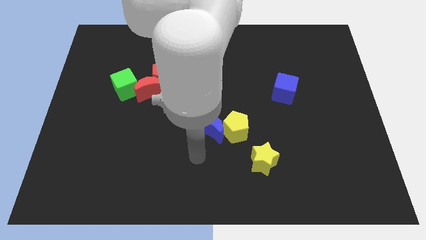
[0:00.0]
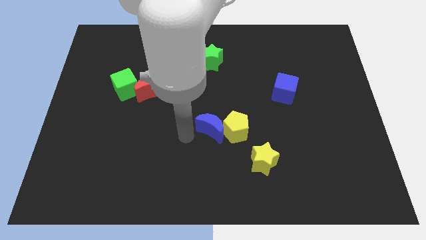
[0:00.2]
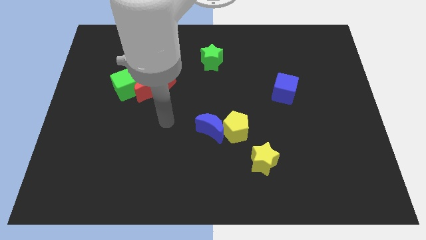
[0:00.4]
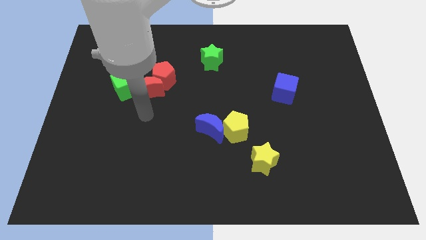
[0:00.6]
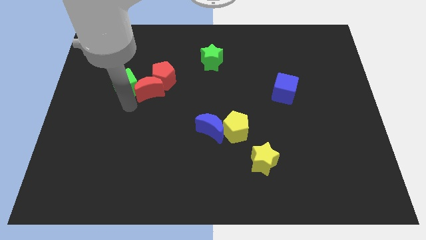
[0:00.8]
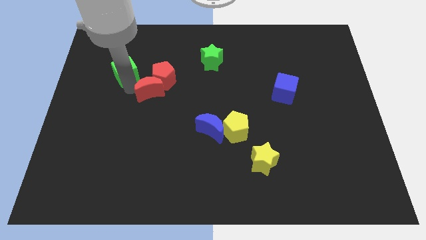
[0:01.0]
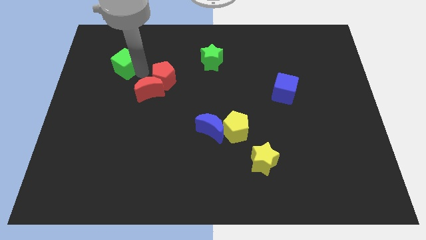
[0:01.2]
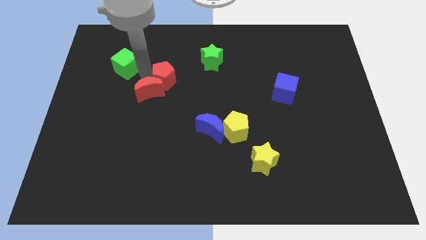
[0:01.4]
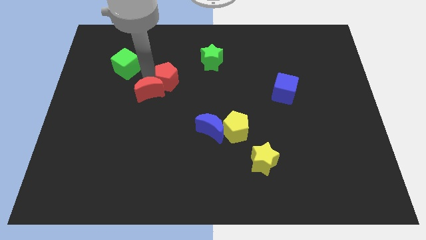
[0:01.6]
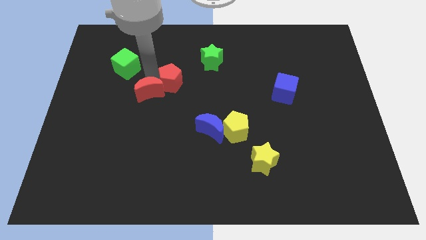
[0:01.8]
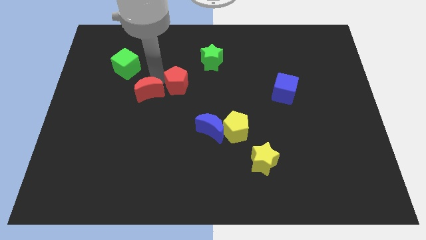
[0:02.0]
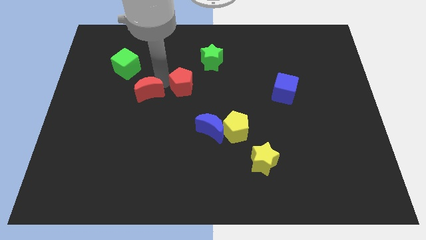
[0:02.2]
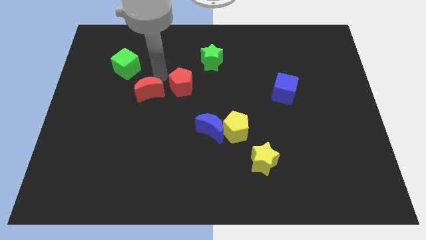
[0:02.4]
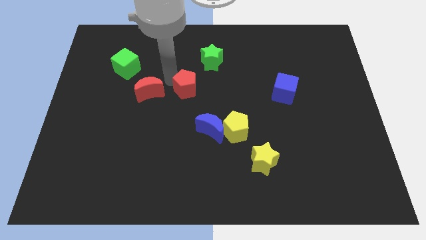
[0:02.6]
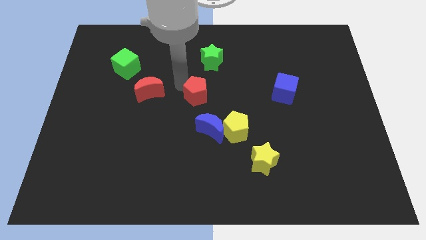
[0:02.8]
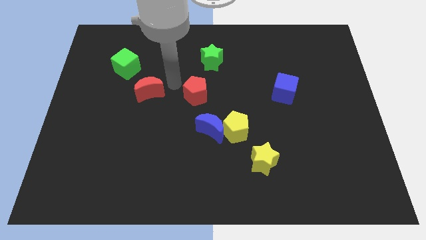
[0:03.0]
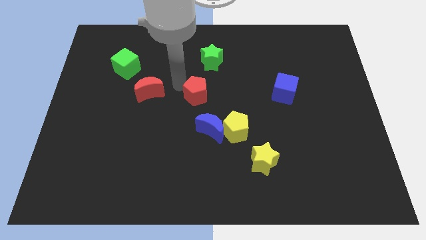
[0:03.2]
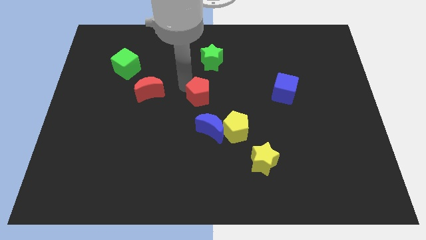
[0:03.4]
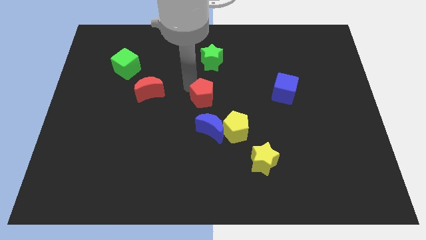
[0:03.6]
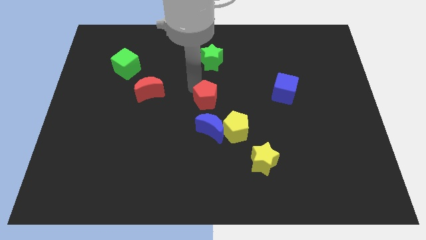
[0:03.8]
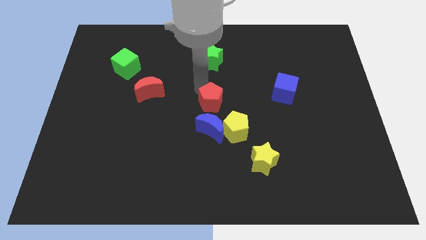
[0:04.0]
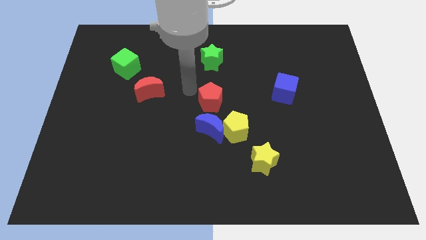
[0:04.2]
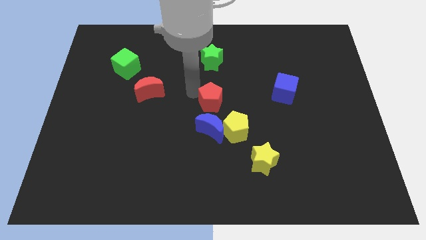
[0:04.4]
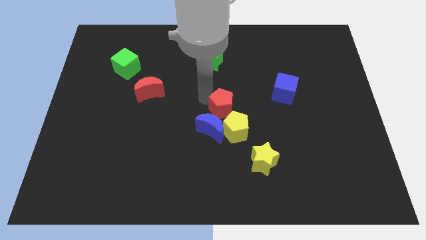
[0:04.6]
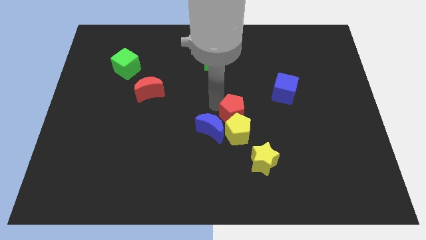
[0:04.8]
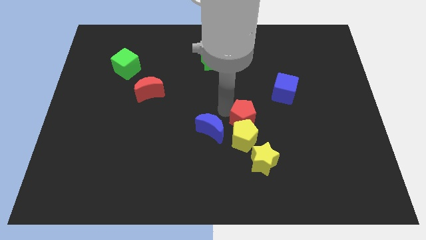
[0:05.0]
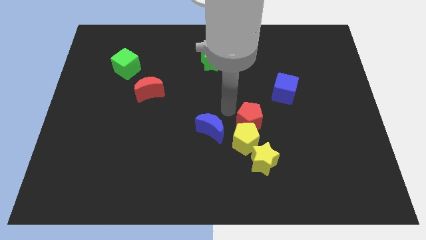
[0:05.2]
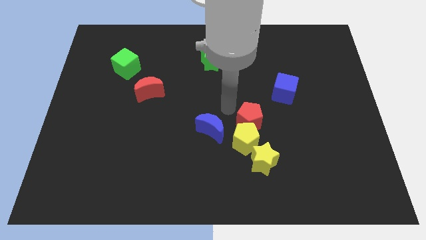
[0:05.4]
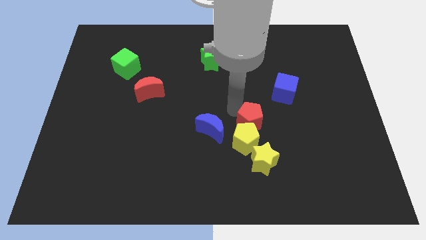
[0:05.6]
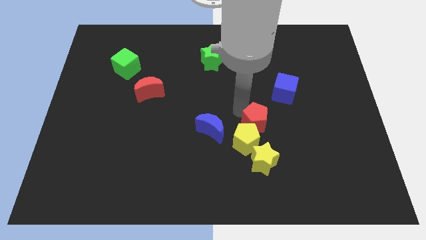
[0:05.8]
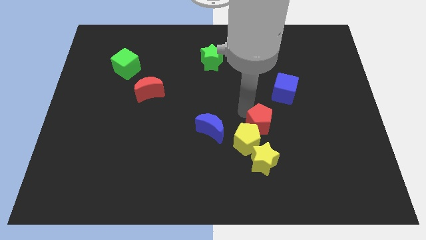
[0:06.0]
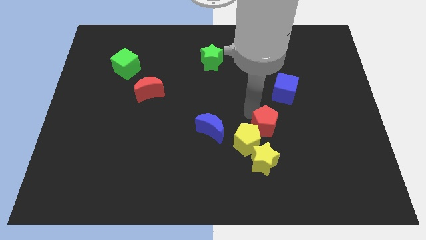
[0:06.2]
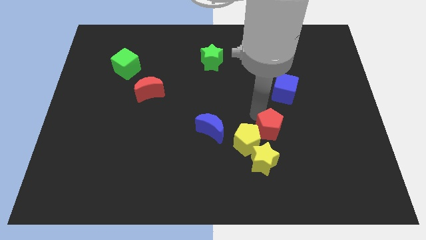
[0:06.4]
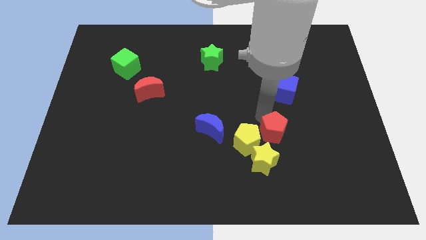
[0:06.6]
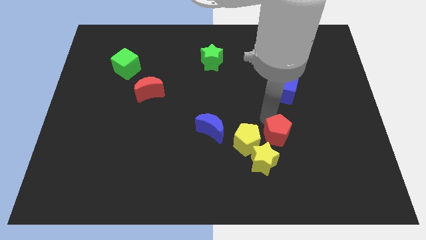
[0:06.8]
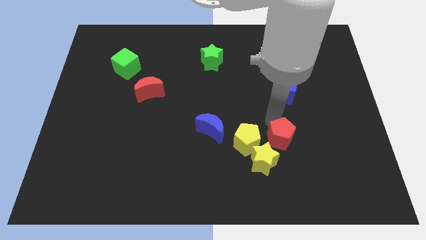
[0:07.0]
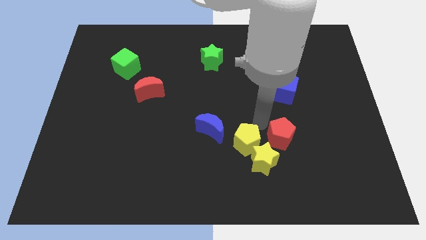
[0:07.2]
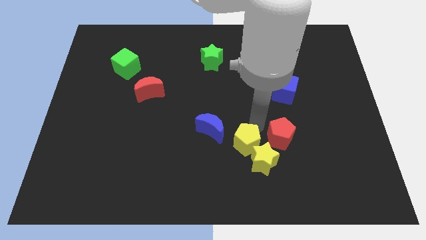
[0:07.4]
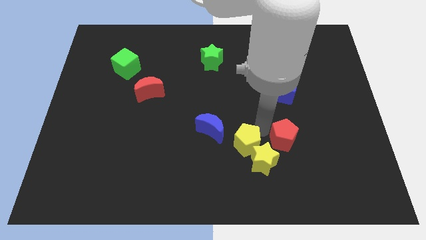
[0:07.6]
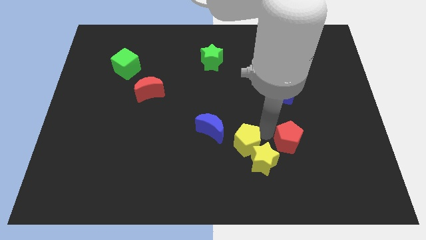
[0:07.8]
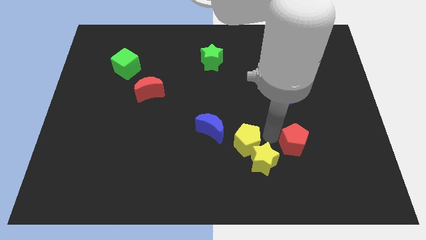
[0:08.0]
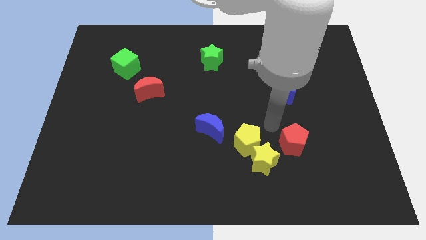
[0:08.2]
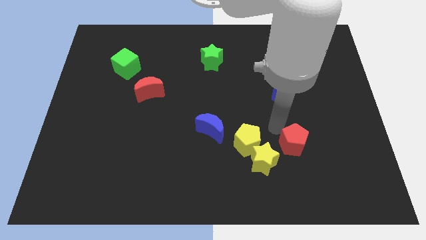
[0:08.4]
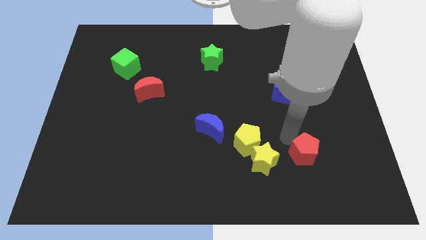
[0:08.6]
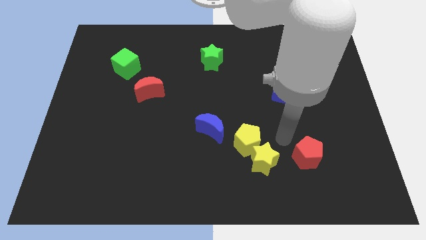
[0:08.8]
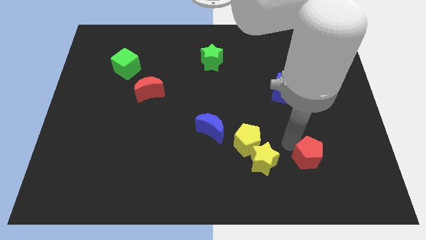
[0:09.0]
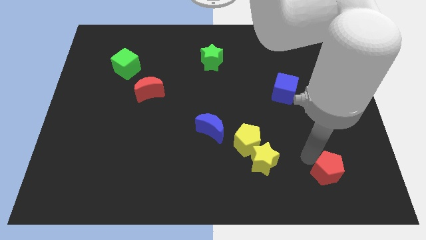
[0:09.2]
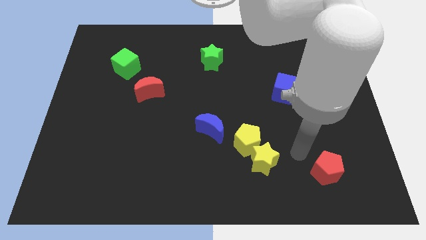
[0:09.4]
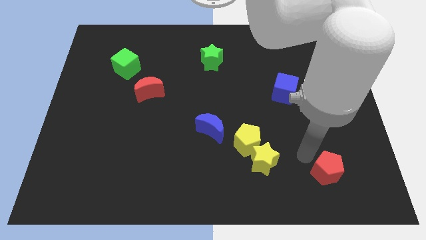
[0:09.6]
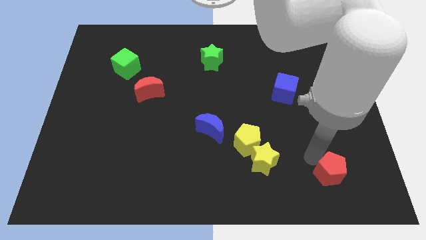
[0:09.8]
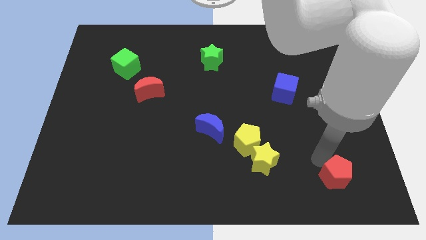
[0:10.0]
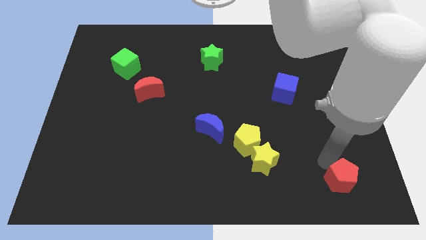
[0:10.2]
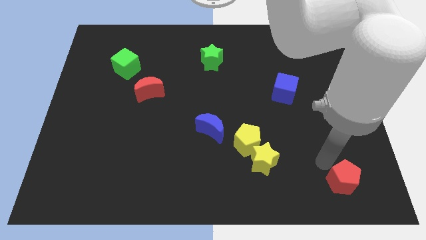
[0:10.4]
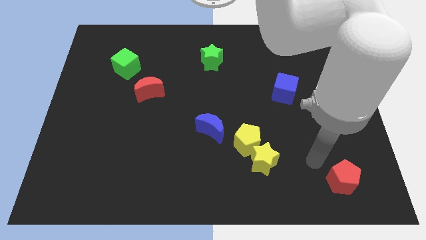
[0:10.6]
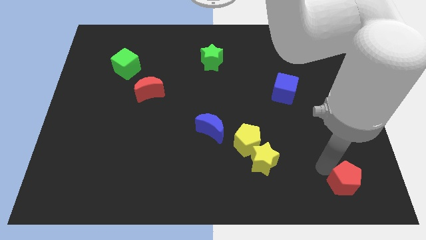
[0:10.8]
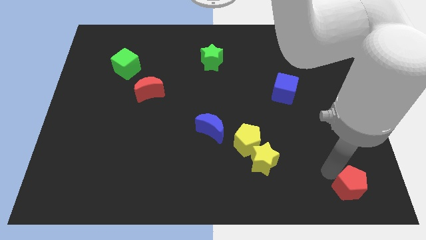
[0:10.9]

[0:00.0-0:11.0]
put the red pentagon to the lower right corner
